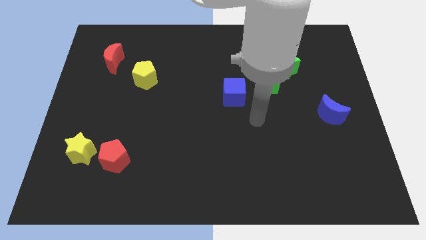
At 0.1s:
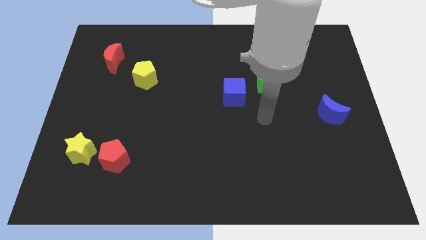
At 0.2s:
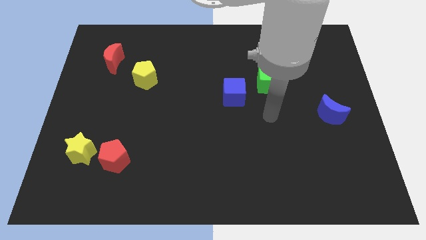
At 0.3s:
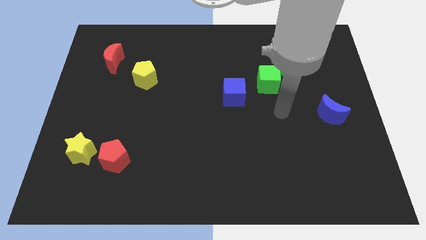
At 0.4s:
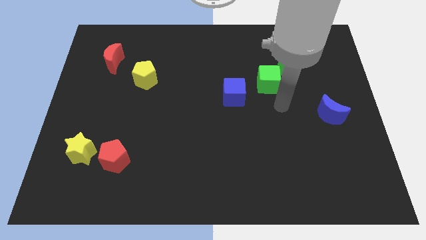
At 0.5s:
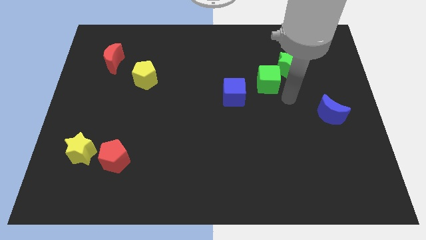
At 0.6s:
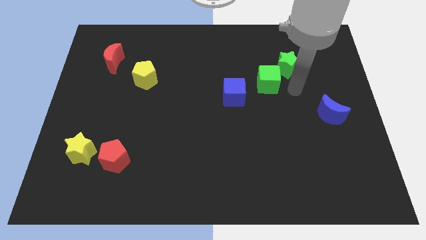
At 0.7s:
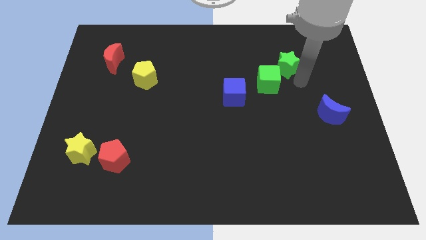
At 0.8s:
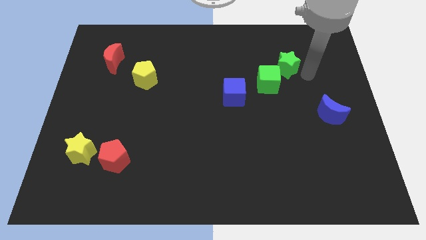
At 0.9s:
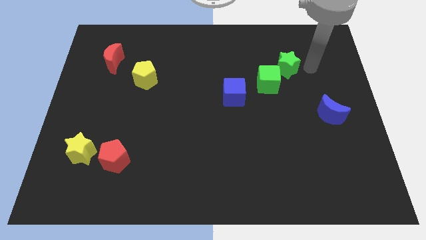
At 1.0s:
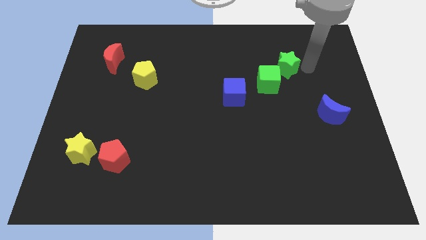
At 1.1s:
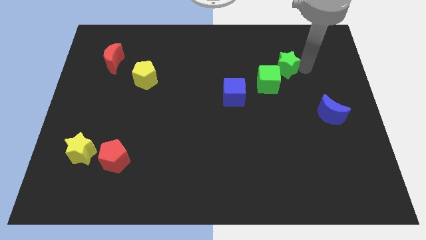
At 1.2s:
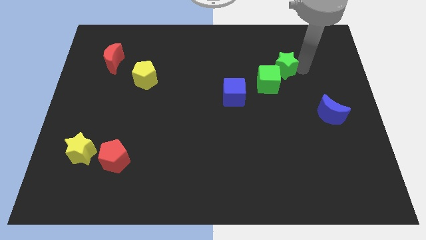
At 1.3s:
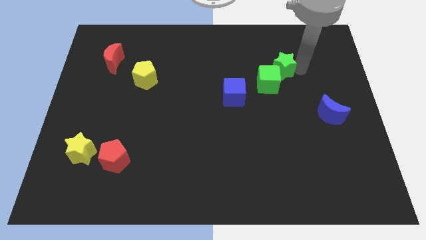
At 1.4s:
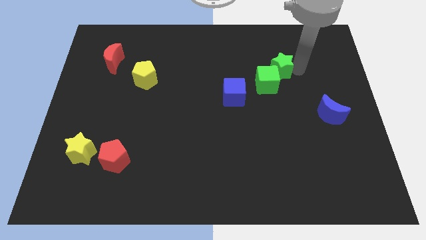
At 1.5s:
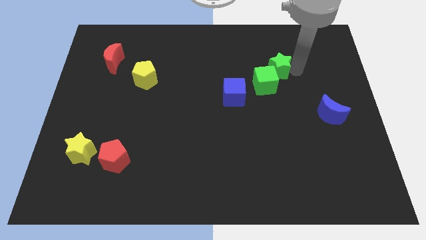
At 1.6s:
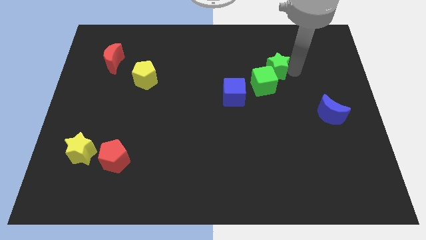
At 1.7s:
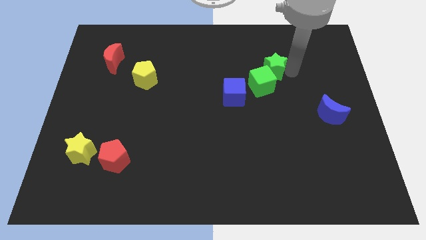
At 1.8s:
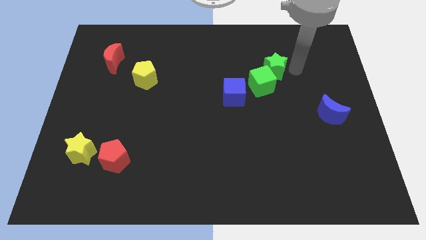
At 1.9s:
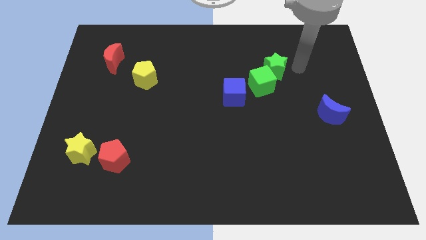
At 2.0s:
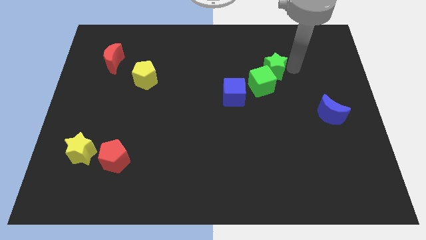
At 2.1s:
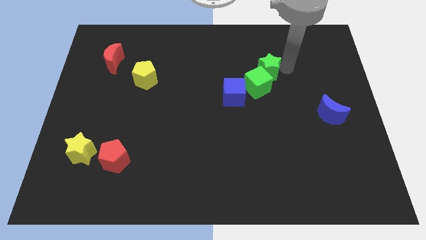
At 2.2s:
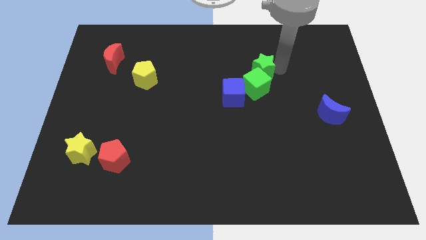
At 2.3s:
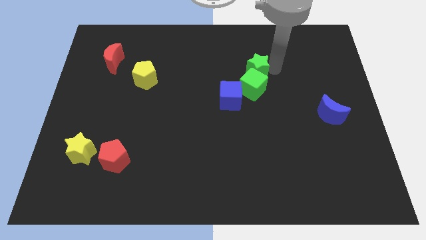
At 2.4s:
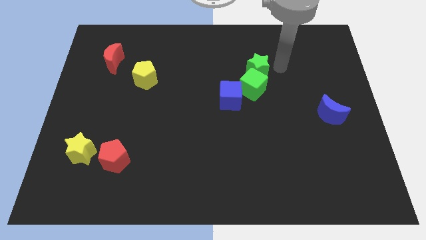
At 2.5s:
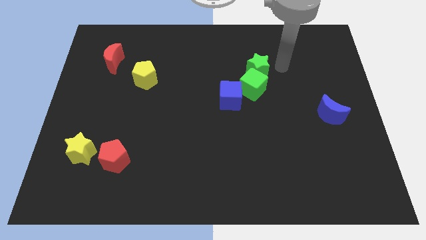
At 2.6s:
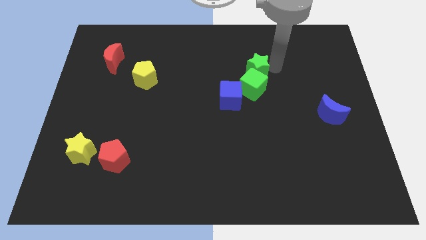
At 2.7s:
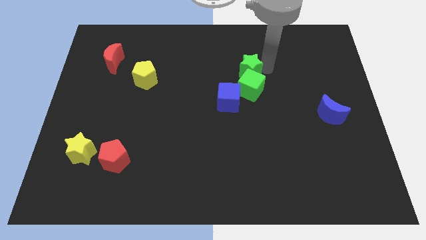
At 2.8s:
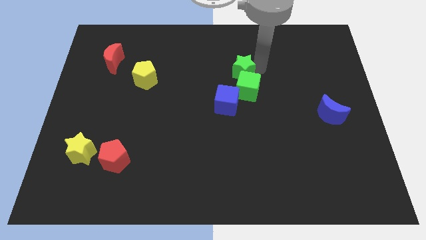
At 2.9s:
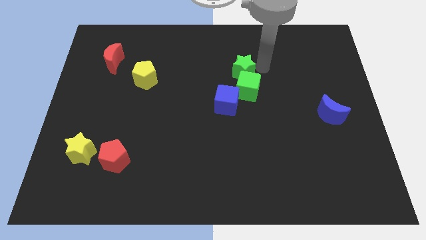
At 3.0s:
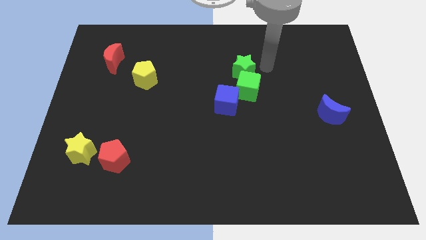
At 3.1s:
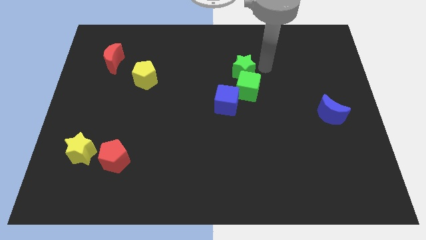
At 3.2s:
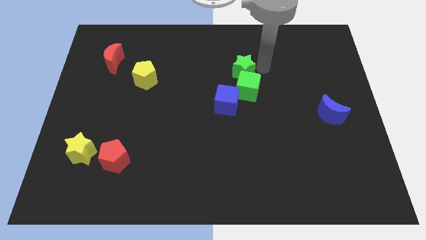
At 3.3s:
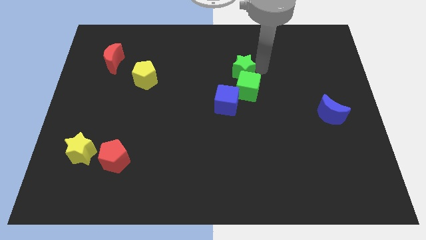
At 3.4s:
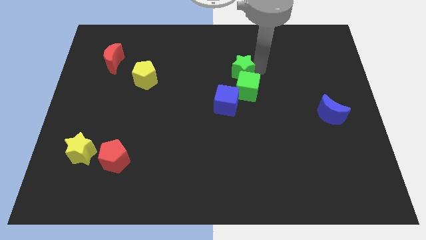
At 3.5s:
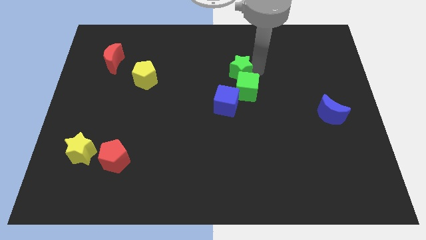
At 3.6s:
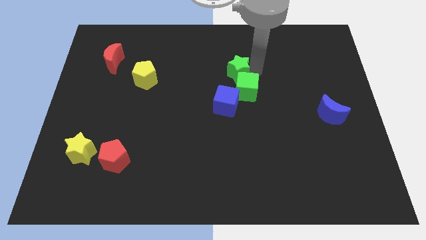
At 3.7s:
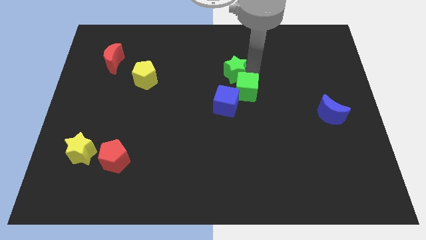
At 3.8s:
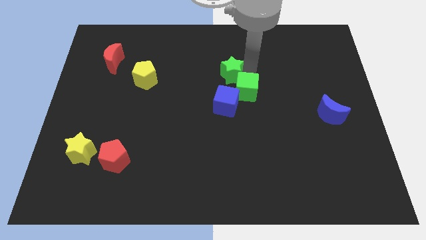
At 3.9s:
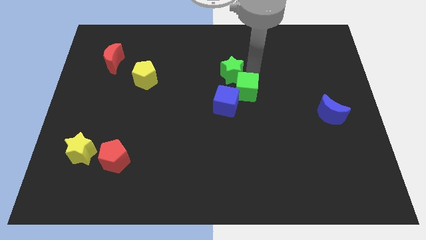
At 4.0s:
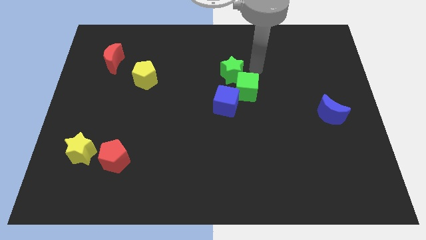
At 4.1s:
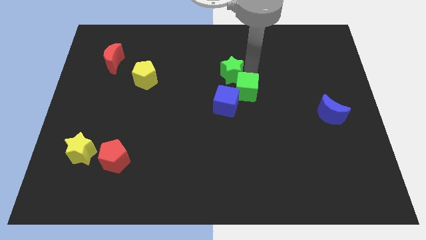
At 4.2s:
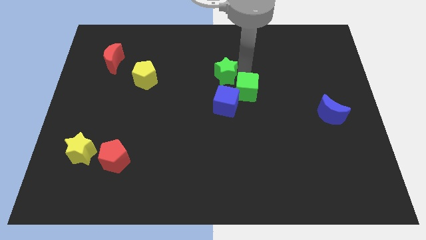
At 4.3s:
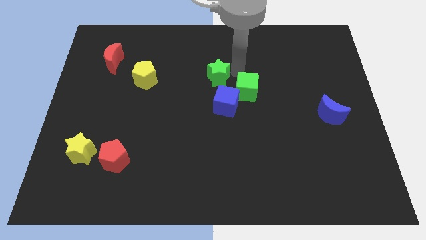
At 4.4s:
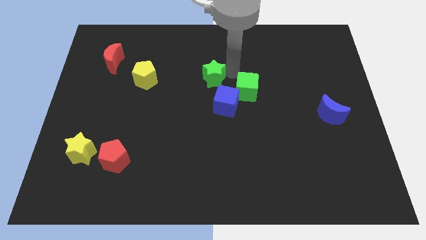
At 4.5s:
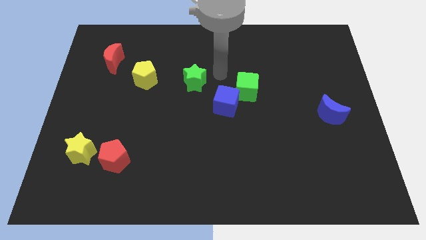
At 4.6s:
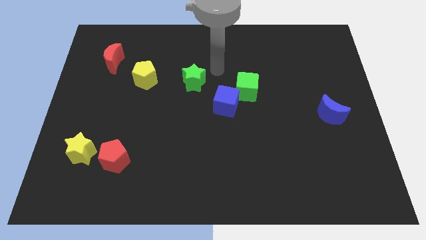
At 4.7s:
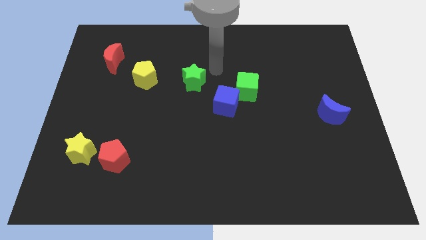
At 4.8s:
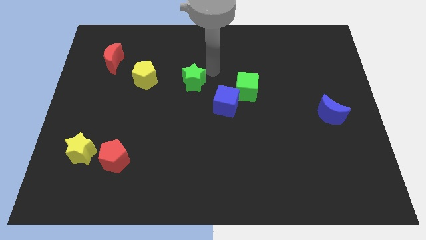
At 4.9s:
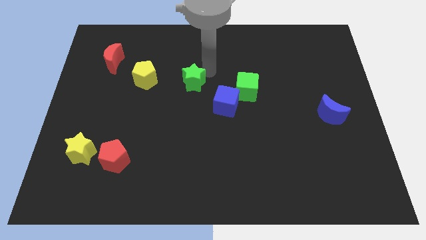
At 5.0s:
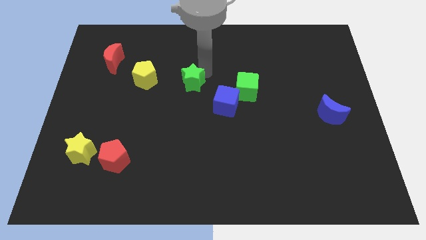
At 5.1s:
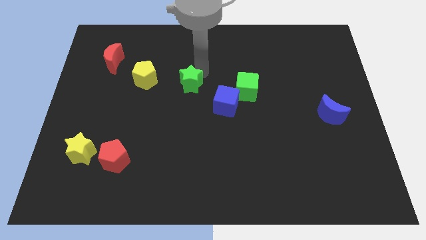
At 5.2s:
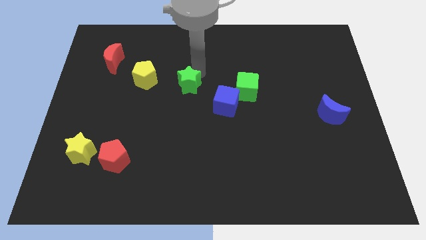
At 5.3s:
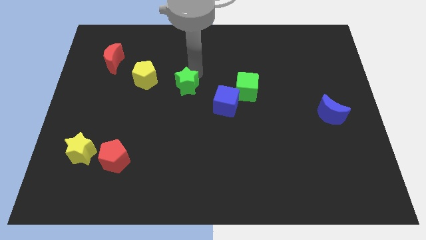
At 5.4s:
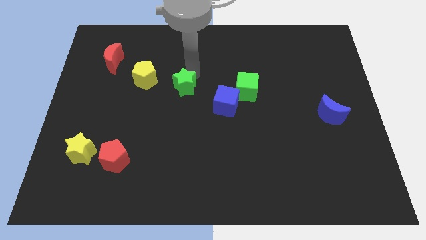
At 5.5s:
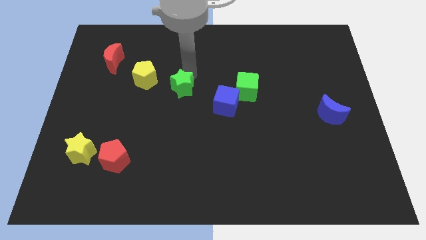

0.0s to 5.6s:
slide the green star to the bottom right of the yellow pentagon

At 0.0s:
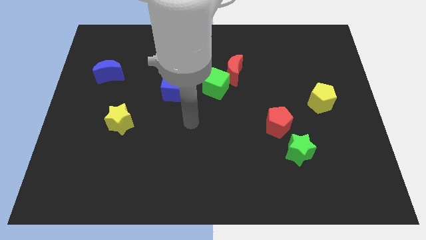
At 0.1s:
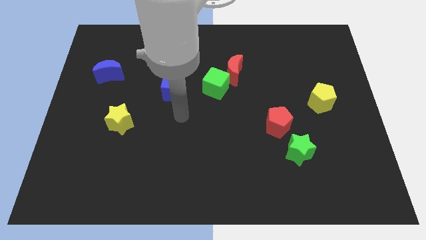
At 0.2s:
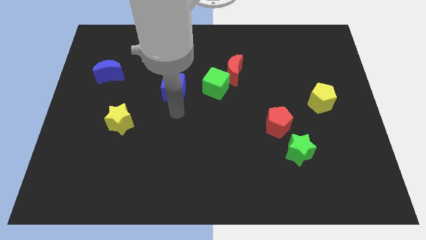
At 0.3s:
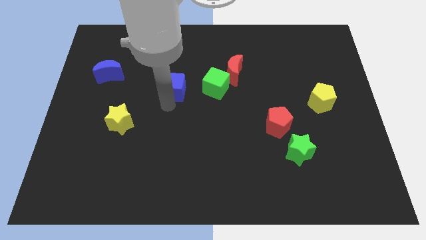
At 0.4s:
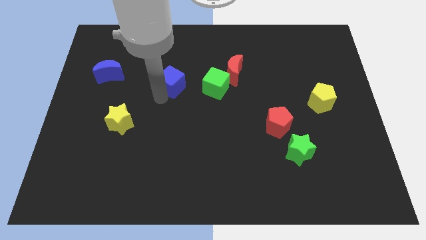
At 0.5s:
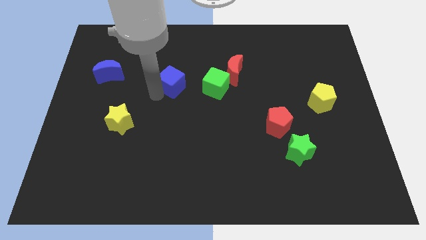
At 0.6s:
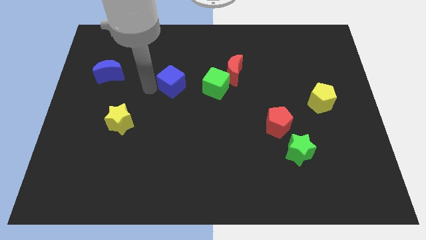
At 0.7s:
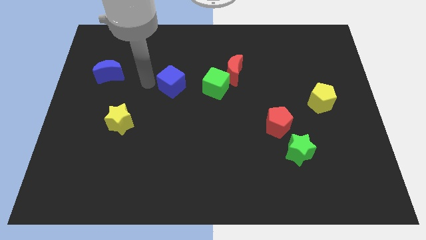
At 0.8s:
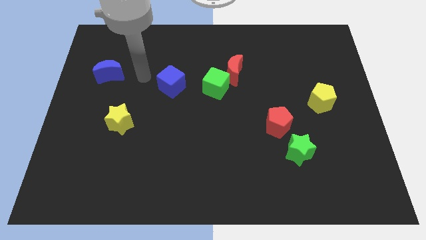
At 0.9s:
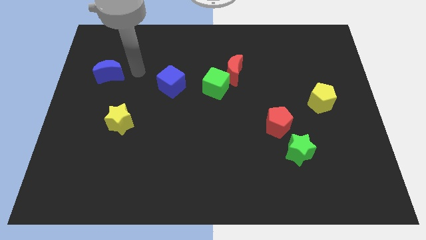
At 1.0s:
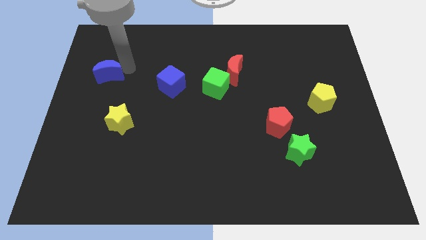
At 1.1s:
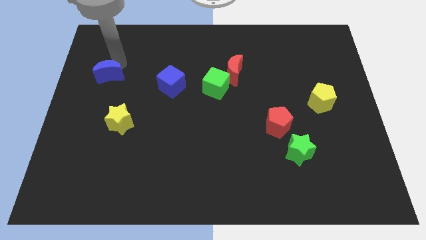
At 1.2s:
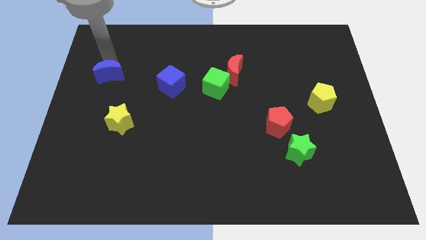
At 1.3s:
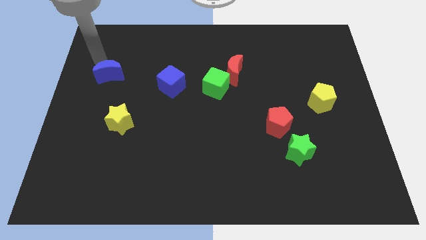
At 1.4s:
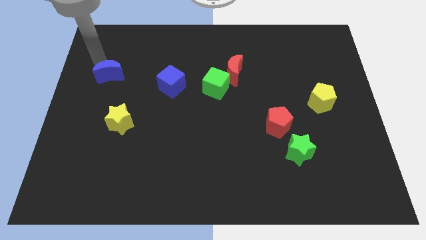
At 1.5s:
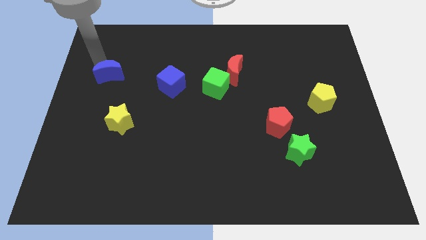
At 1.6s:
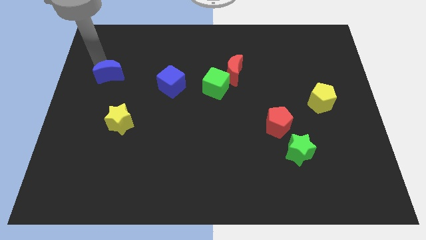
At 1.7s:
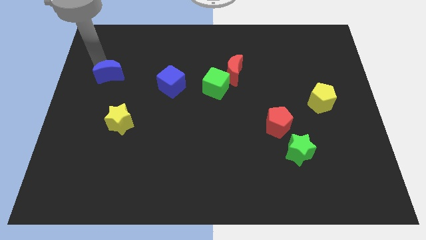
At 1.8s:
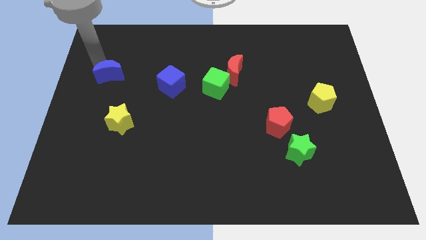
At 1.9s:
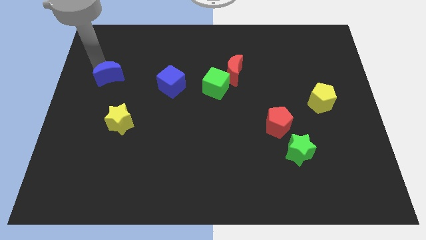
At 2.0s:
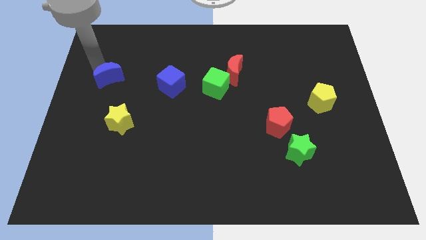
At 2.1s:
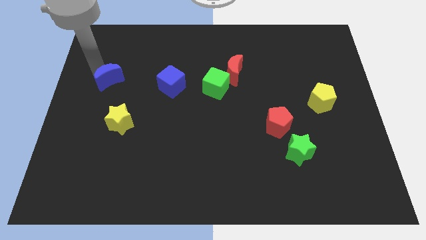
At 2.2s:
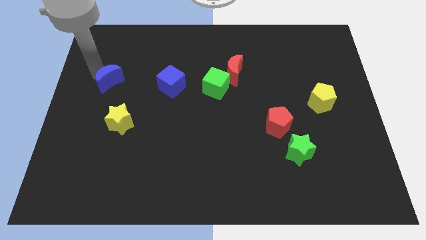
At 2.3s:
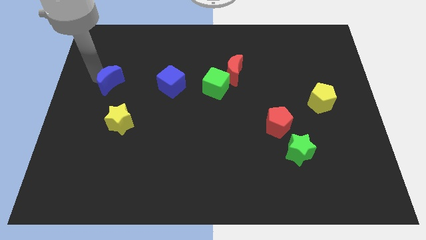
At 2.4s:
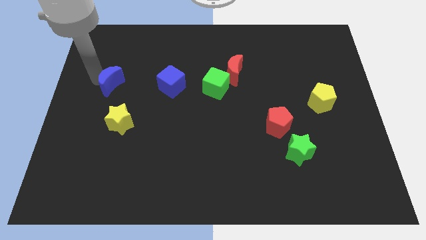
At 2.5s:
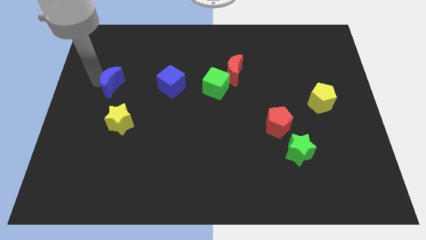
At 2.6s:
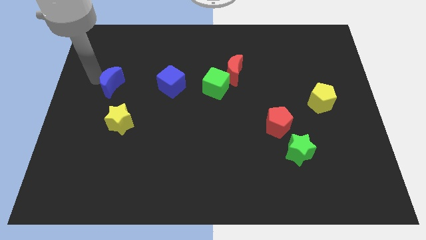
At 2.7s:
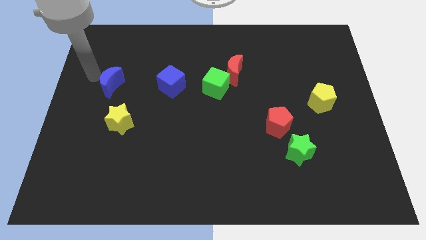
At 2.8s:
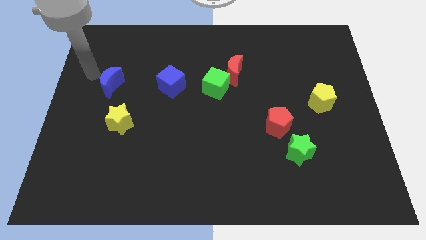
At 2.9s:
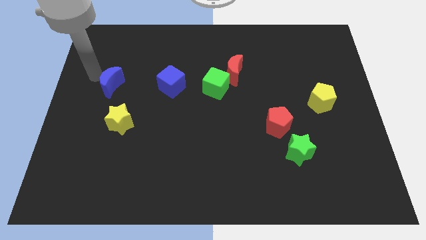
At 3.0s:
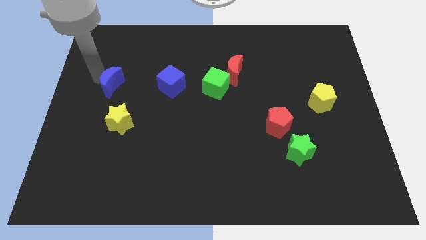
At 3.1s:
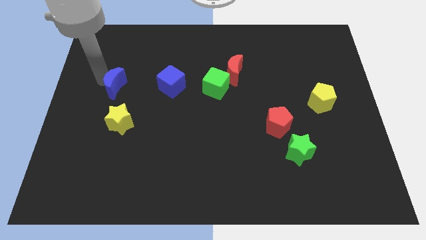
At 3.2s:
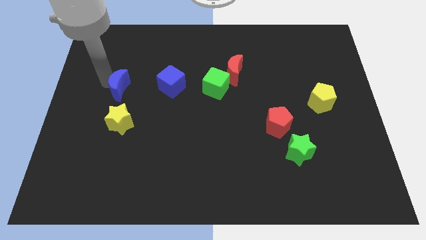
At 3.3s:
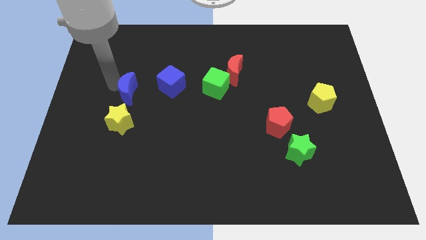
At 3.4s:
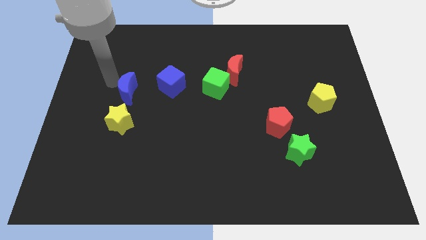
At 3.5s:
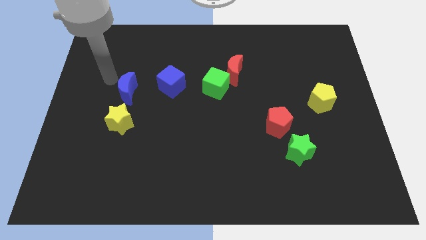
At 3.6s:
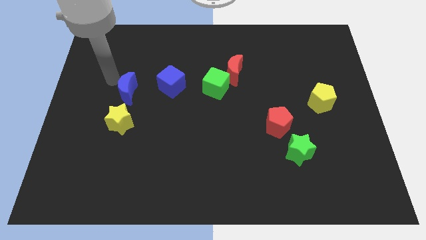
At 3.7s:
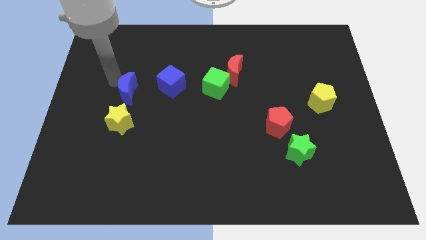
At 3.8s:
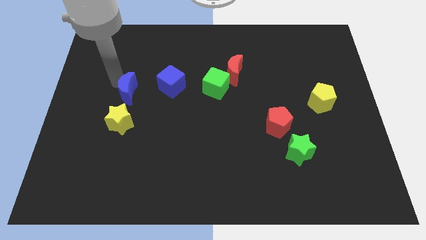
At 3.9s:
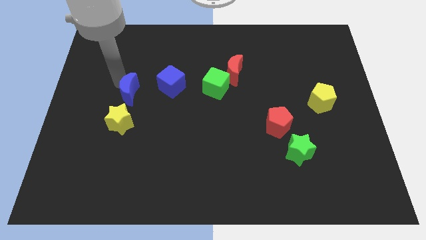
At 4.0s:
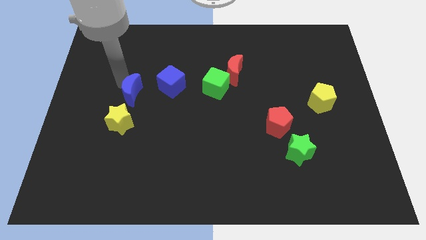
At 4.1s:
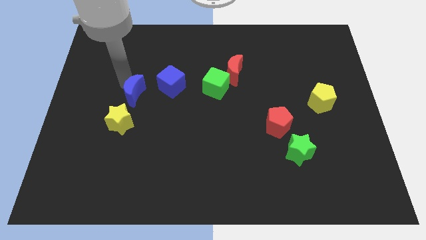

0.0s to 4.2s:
move the blue moon diagonally up and to the right of the yellow star
